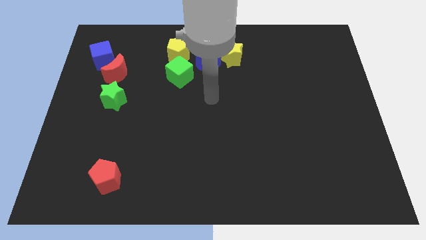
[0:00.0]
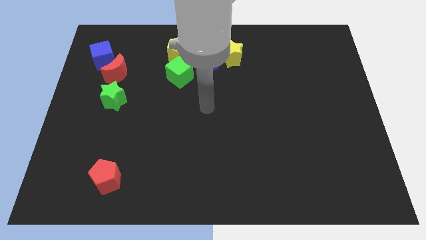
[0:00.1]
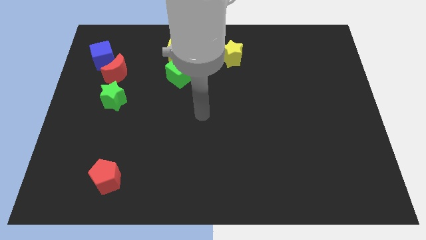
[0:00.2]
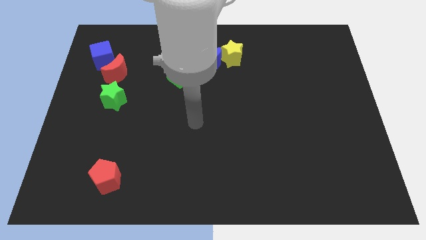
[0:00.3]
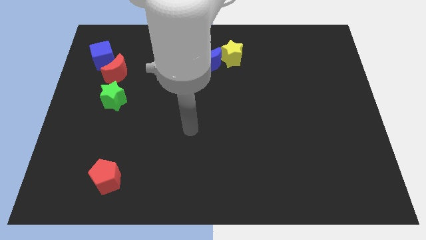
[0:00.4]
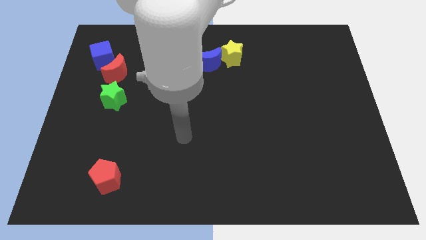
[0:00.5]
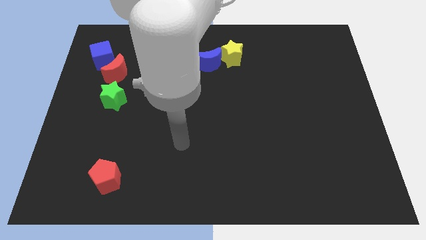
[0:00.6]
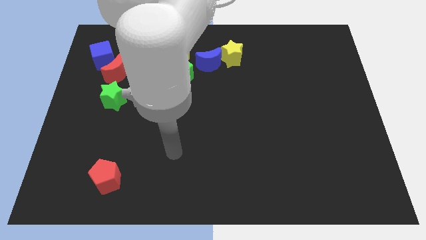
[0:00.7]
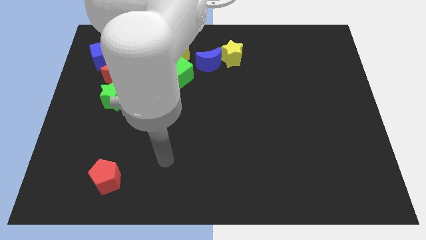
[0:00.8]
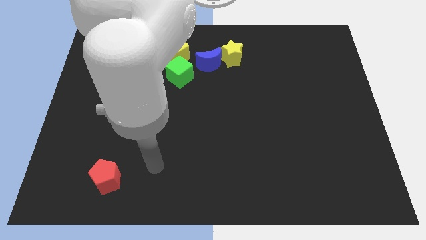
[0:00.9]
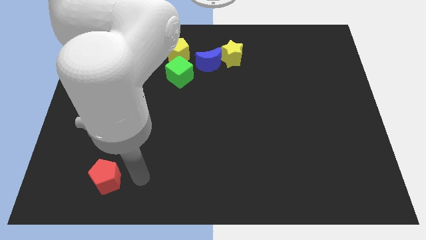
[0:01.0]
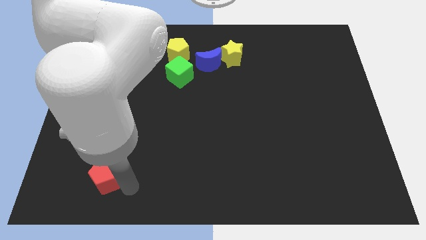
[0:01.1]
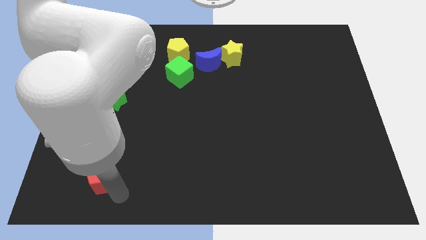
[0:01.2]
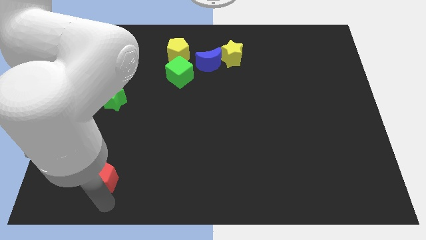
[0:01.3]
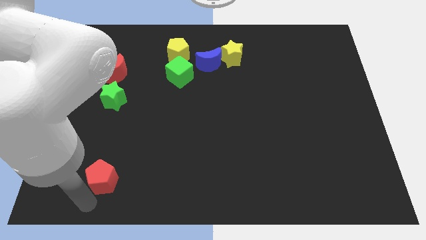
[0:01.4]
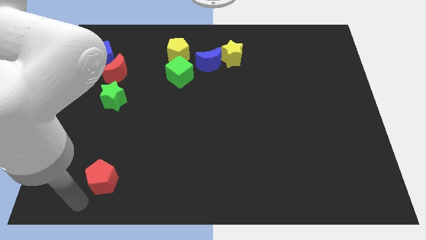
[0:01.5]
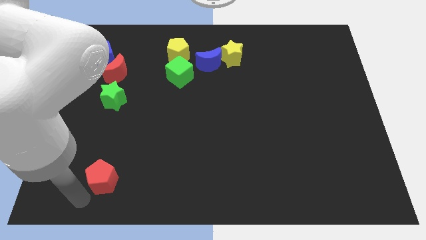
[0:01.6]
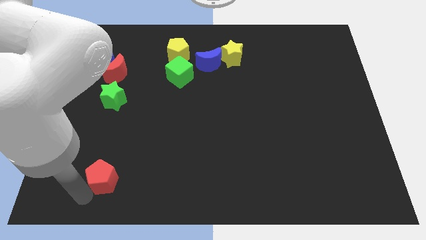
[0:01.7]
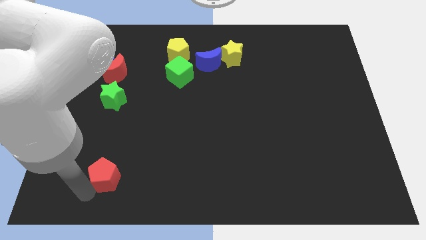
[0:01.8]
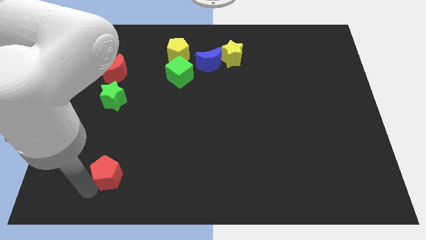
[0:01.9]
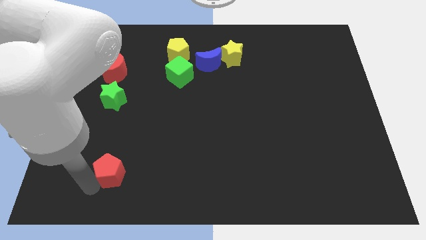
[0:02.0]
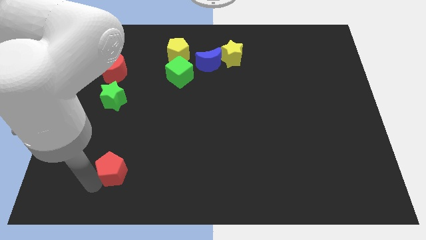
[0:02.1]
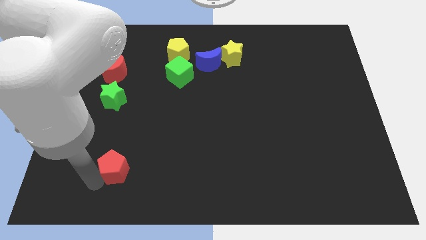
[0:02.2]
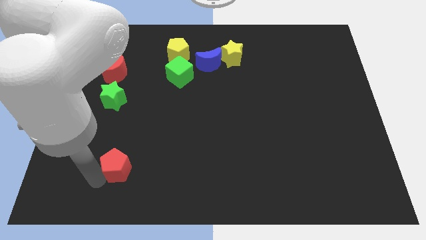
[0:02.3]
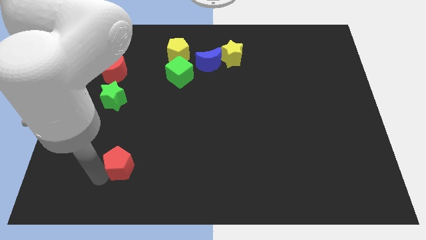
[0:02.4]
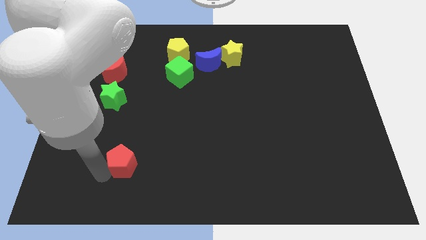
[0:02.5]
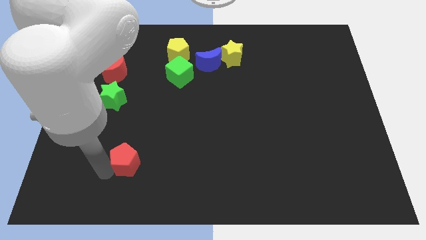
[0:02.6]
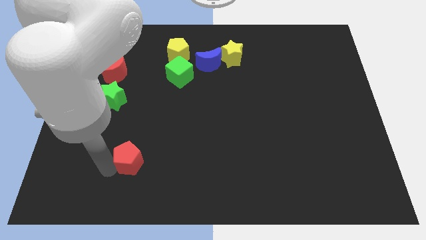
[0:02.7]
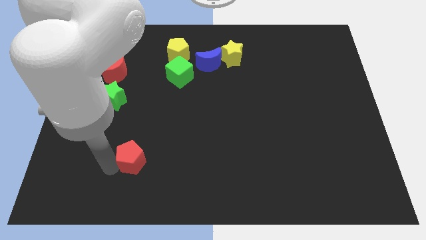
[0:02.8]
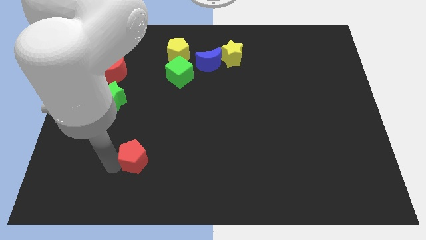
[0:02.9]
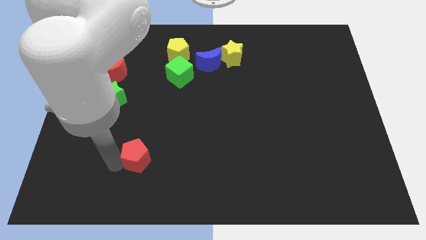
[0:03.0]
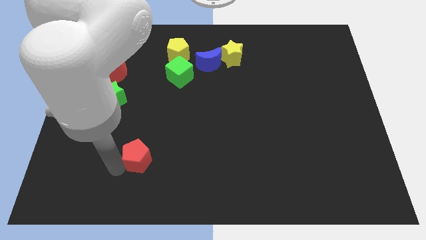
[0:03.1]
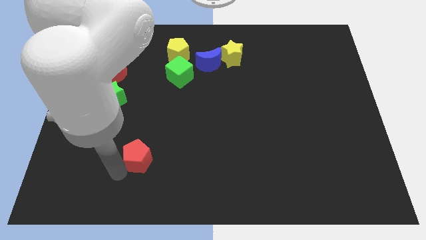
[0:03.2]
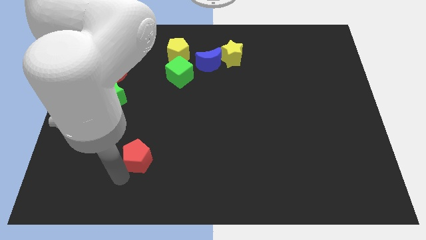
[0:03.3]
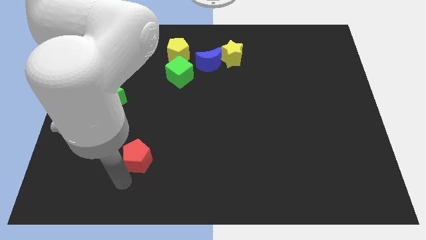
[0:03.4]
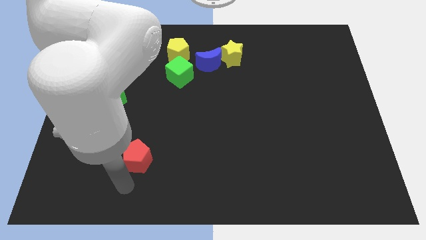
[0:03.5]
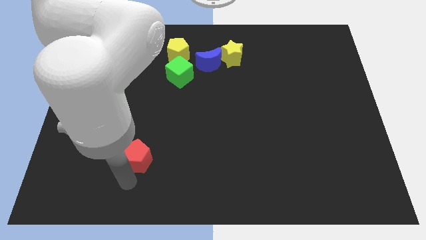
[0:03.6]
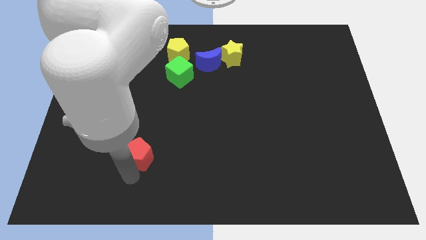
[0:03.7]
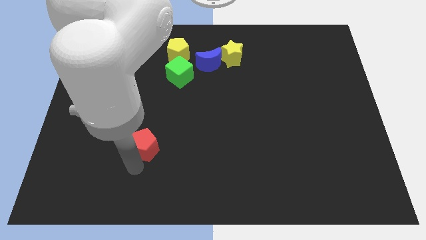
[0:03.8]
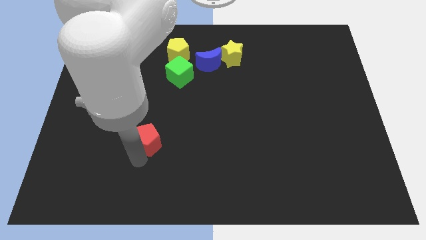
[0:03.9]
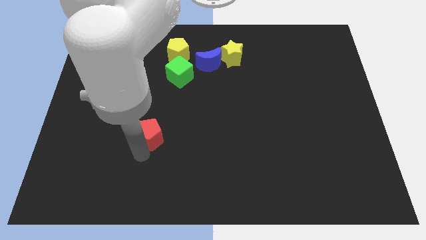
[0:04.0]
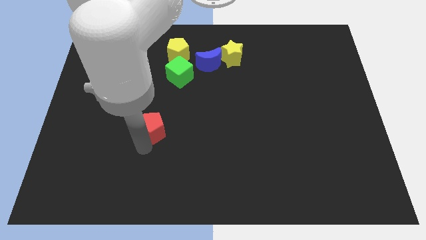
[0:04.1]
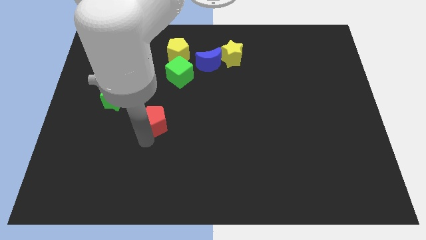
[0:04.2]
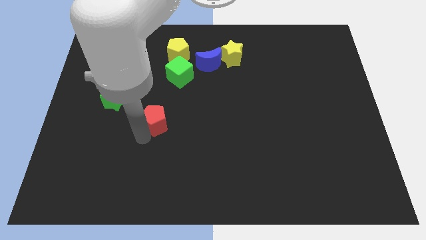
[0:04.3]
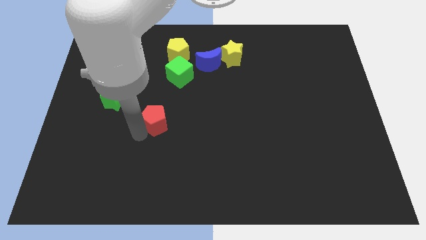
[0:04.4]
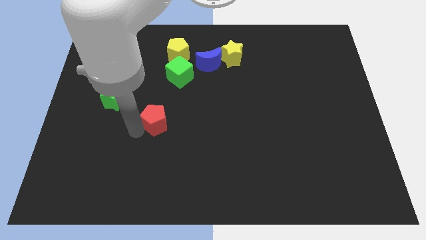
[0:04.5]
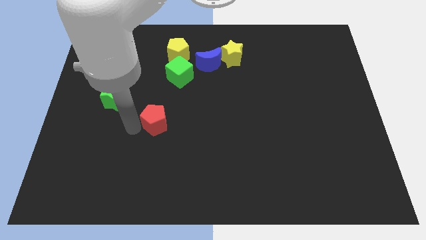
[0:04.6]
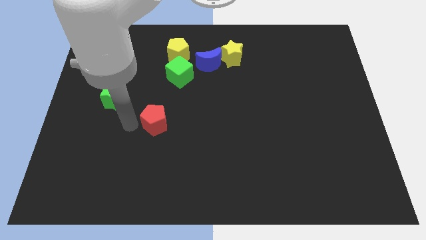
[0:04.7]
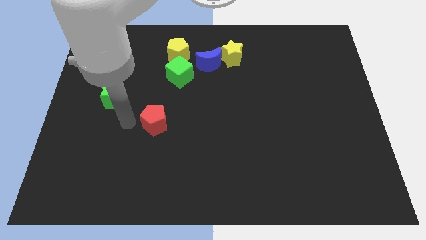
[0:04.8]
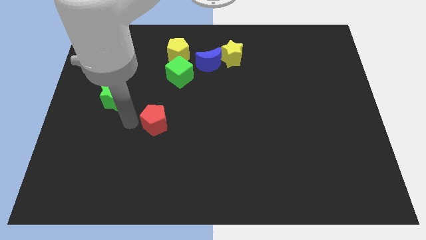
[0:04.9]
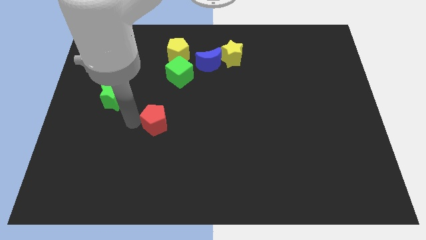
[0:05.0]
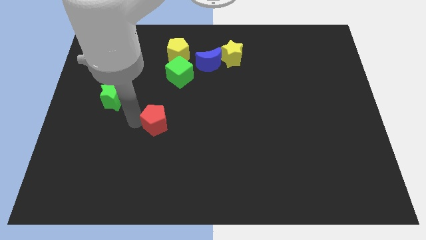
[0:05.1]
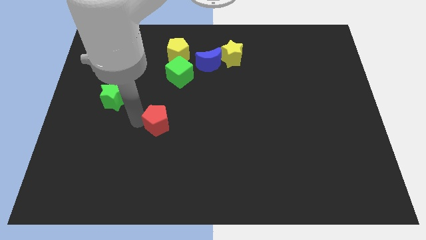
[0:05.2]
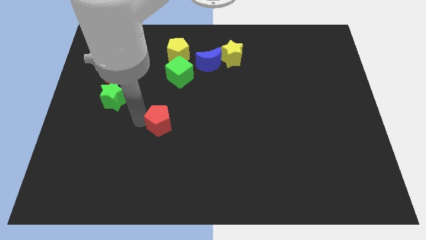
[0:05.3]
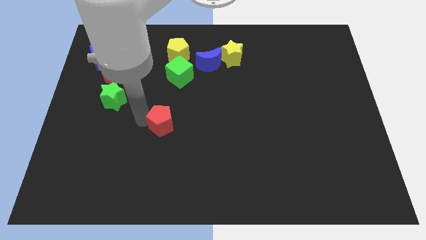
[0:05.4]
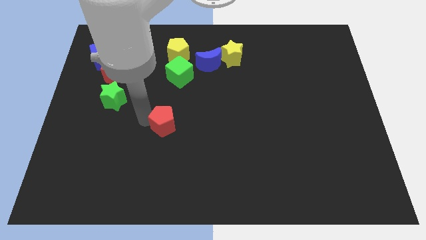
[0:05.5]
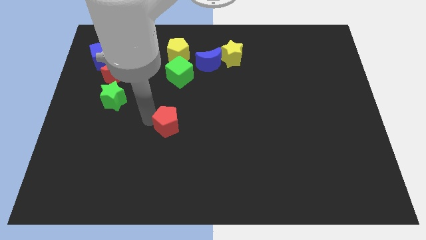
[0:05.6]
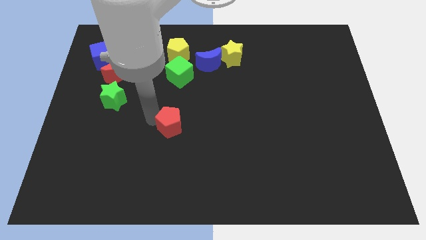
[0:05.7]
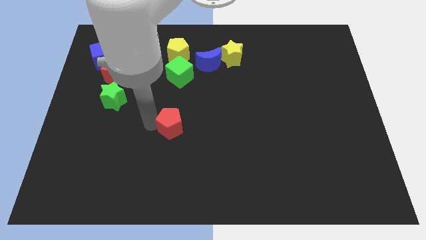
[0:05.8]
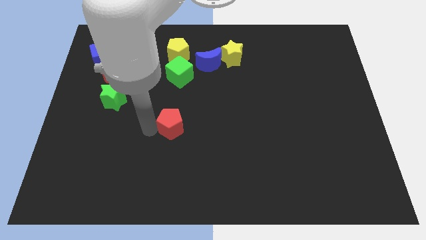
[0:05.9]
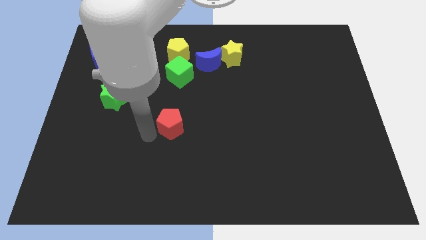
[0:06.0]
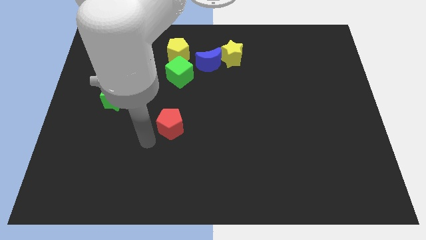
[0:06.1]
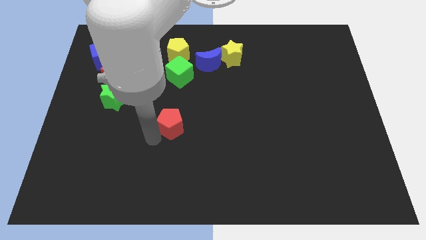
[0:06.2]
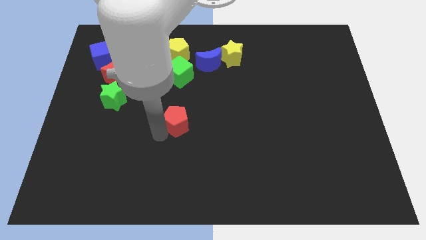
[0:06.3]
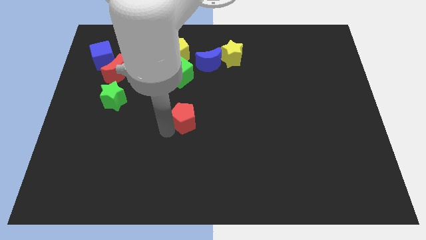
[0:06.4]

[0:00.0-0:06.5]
move the red pentagon up and to the right diagonally

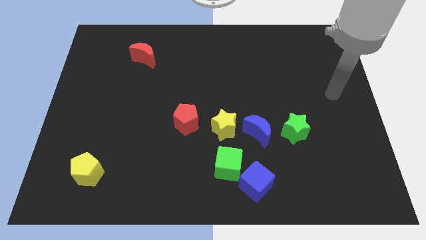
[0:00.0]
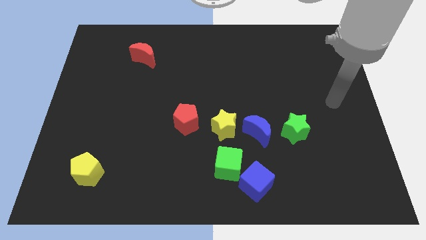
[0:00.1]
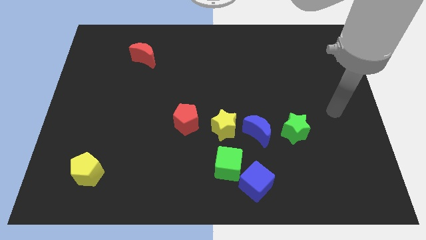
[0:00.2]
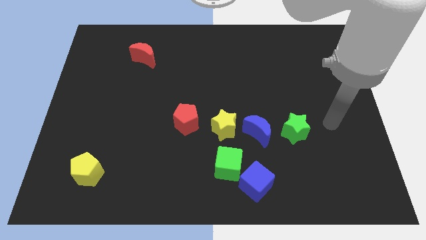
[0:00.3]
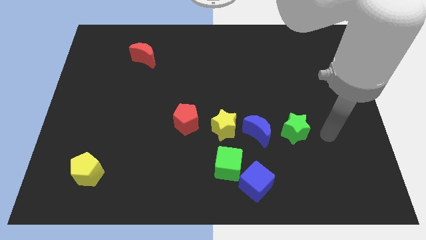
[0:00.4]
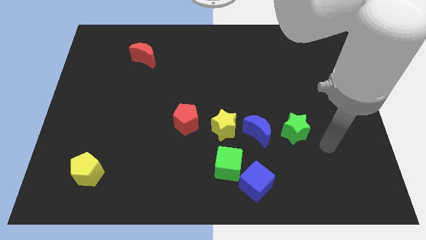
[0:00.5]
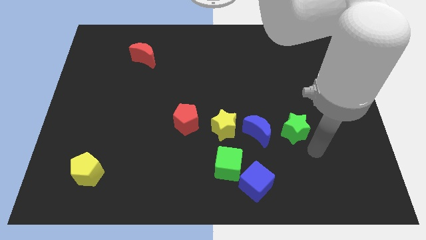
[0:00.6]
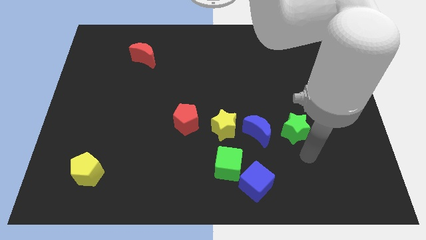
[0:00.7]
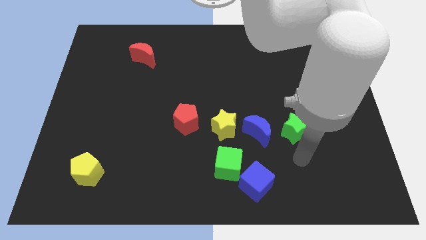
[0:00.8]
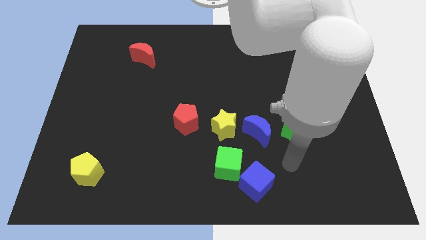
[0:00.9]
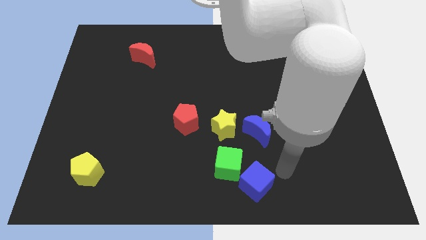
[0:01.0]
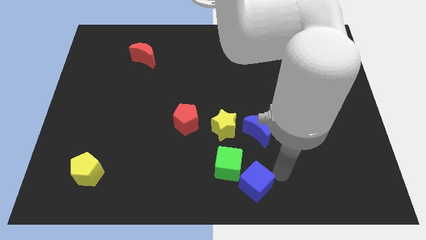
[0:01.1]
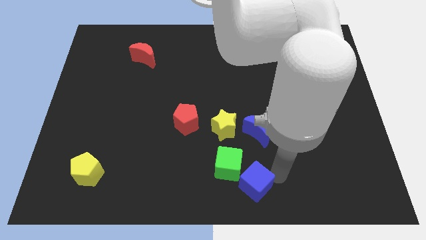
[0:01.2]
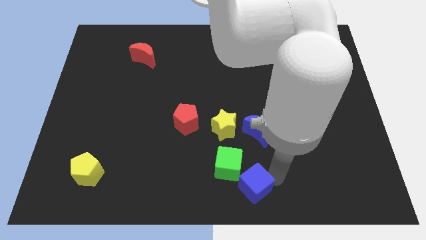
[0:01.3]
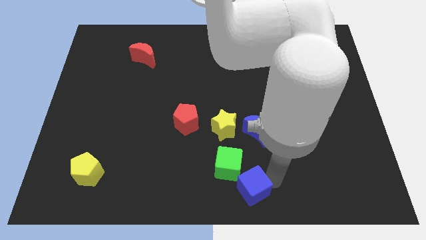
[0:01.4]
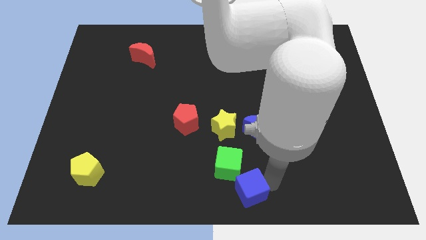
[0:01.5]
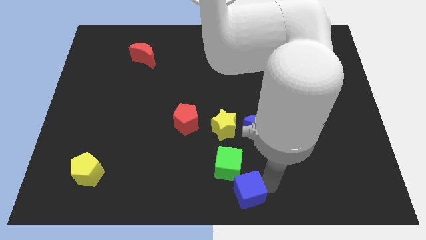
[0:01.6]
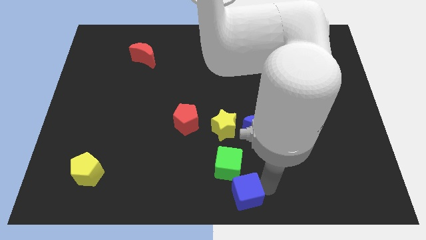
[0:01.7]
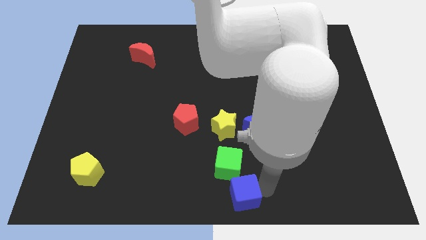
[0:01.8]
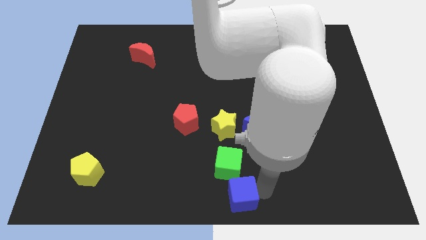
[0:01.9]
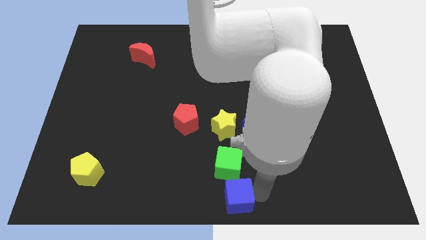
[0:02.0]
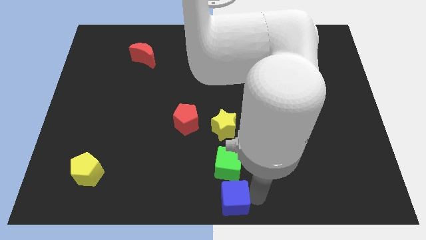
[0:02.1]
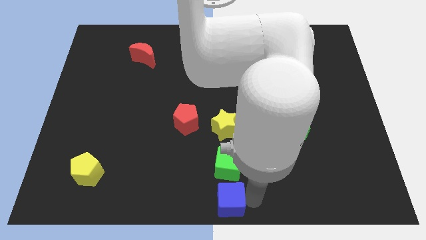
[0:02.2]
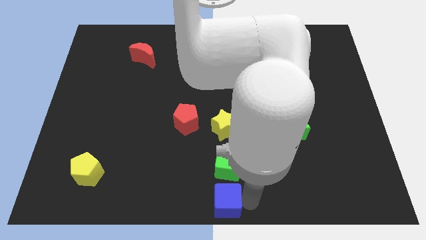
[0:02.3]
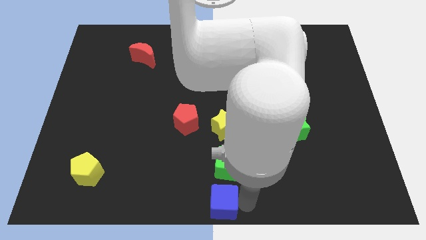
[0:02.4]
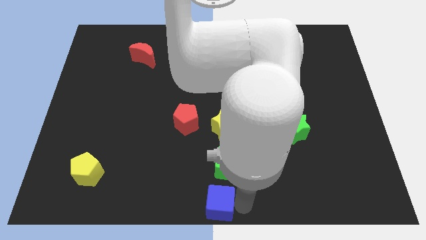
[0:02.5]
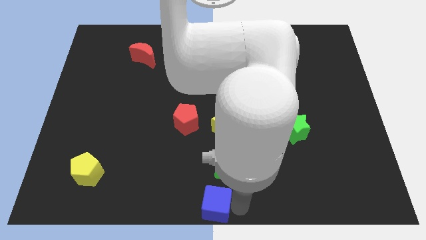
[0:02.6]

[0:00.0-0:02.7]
move the blue cube to the left a little
